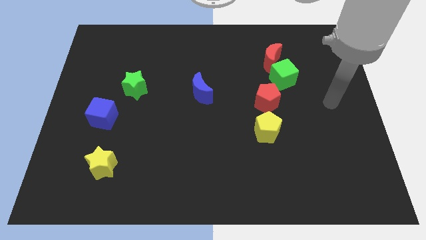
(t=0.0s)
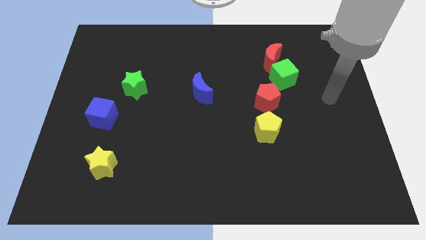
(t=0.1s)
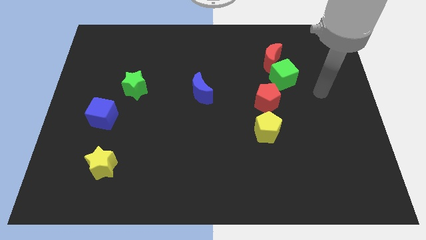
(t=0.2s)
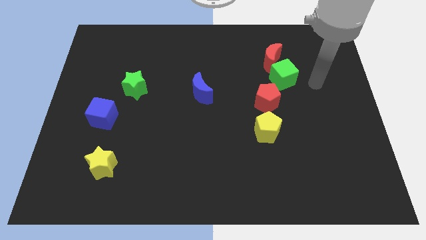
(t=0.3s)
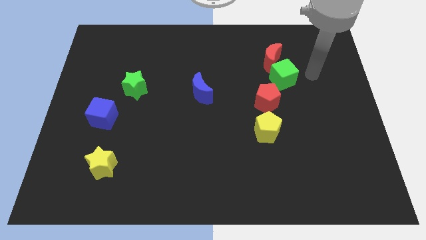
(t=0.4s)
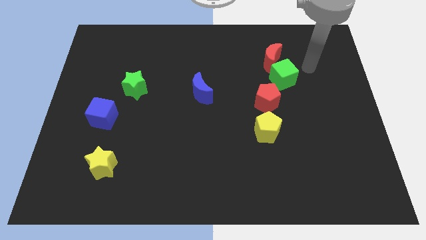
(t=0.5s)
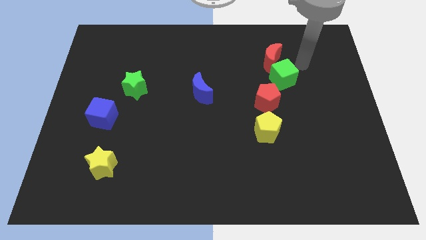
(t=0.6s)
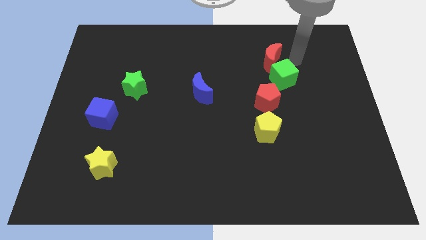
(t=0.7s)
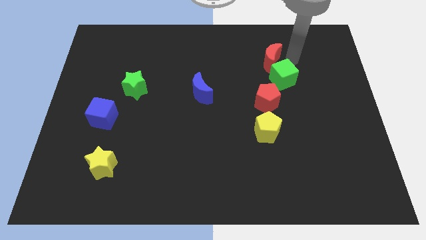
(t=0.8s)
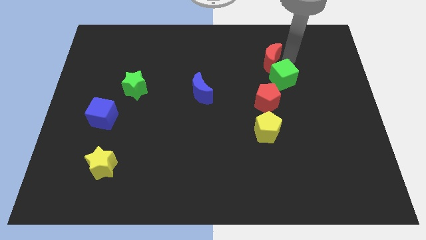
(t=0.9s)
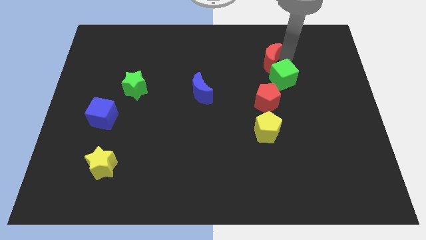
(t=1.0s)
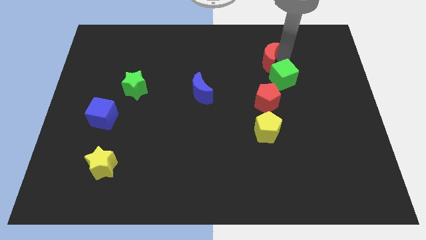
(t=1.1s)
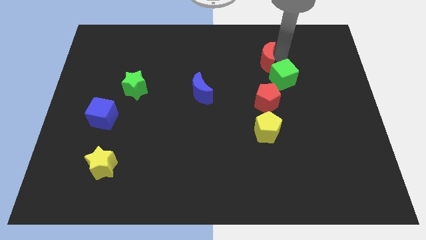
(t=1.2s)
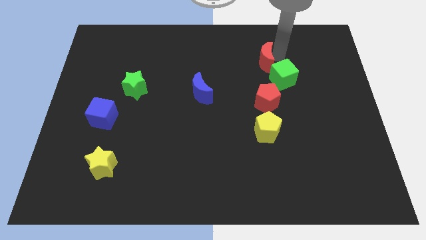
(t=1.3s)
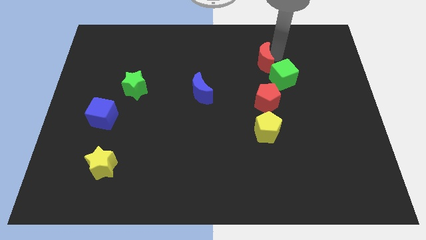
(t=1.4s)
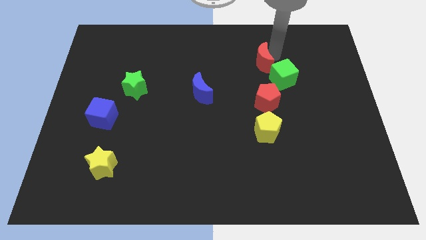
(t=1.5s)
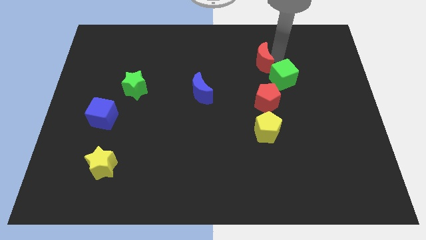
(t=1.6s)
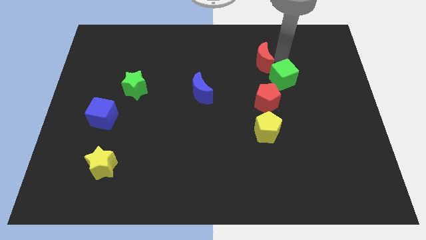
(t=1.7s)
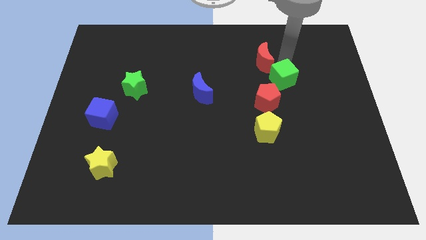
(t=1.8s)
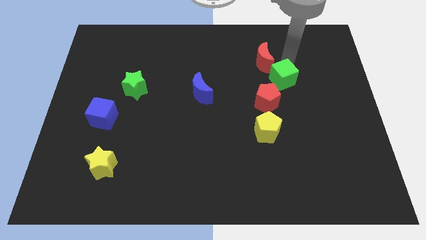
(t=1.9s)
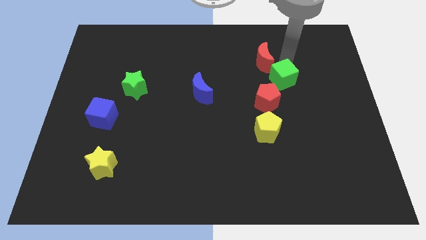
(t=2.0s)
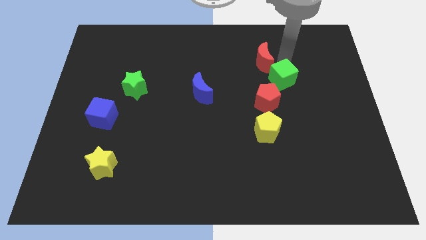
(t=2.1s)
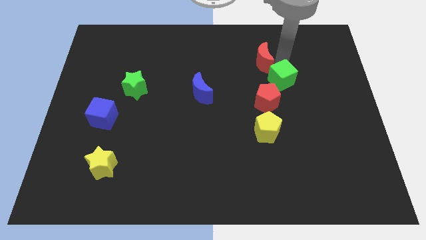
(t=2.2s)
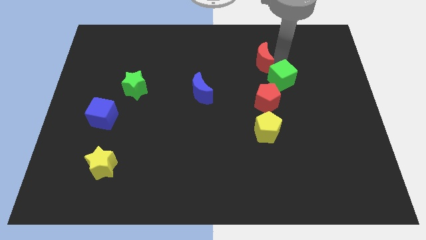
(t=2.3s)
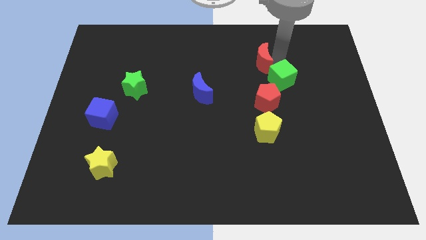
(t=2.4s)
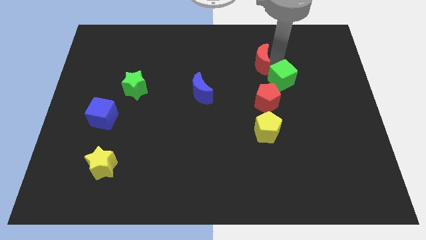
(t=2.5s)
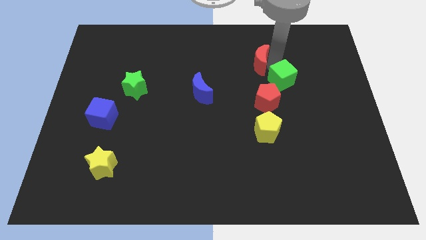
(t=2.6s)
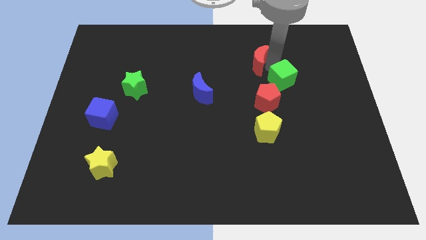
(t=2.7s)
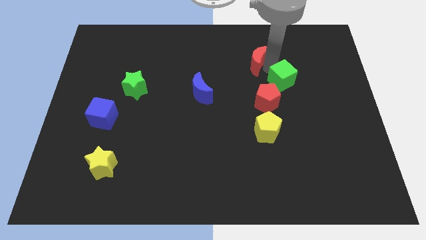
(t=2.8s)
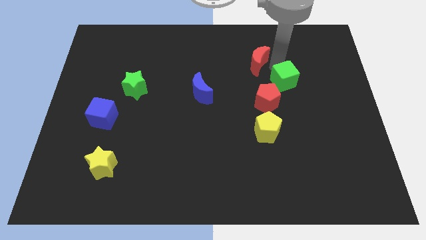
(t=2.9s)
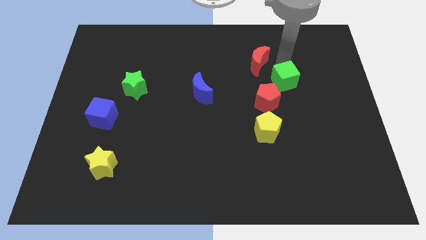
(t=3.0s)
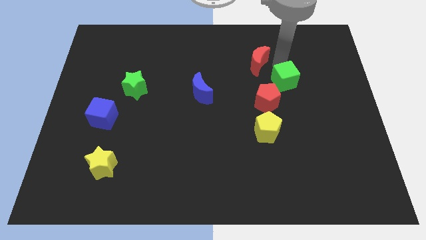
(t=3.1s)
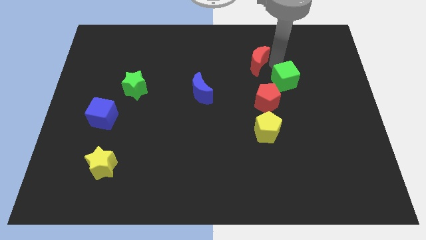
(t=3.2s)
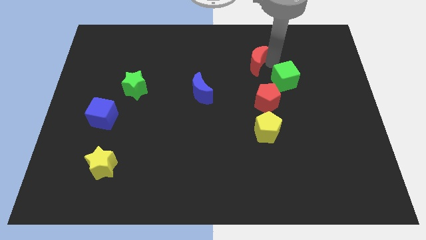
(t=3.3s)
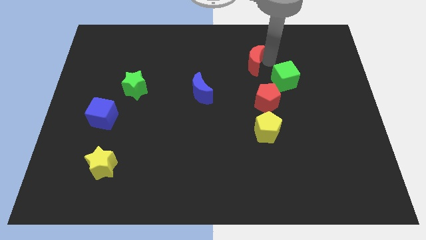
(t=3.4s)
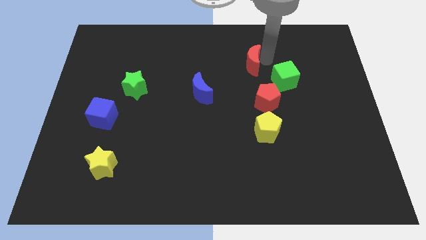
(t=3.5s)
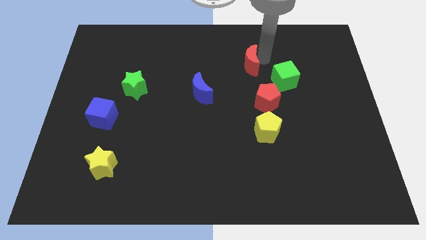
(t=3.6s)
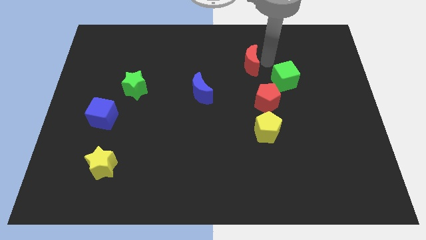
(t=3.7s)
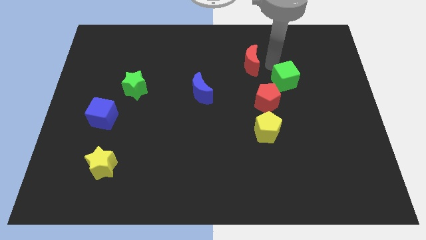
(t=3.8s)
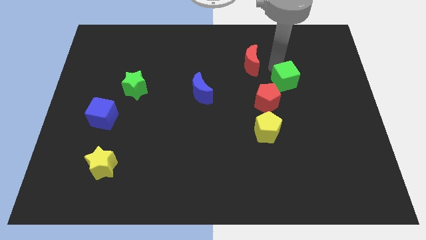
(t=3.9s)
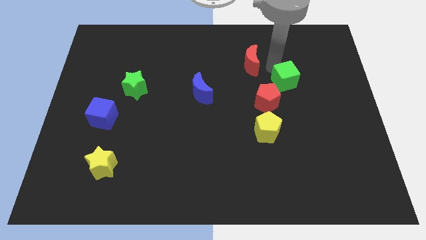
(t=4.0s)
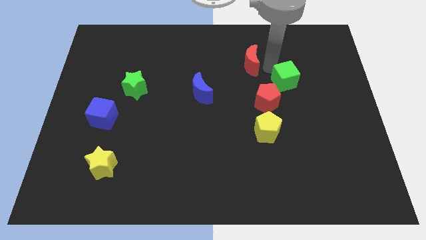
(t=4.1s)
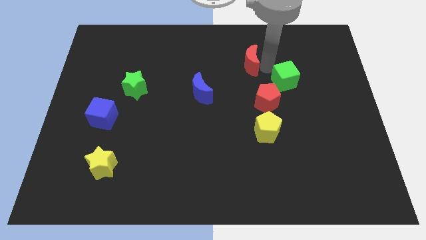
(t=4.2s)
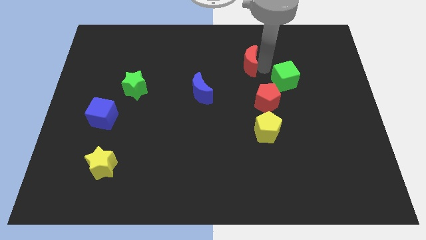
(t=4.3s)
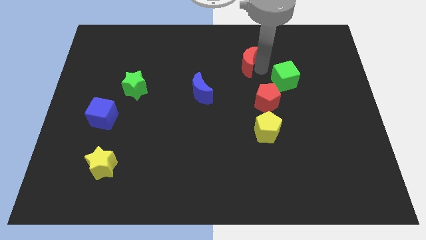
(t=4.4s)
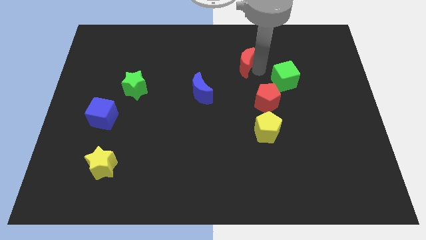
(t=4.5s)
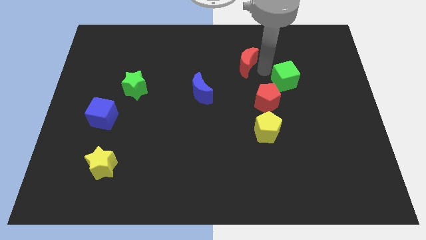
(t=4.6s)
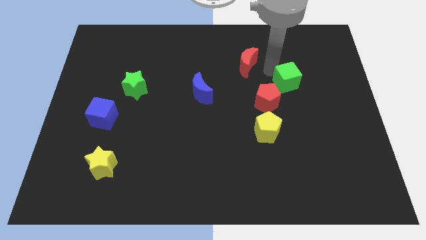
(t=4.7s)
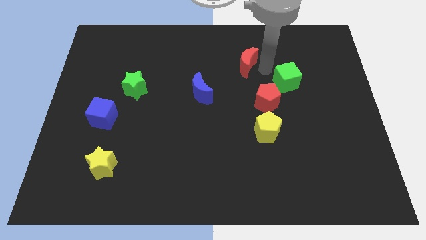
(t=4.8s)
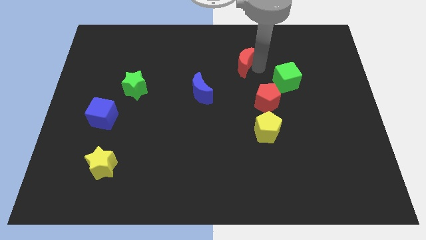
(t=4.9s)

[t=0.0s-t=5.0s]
move the red moon slightly left

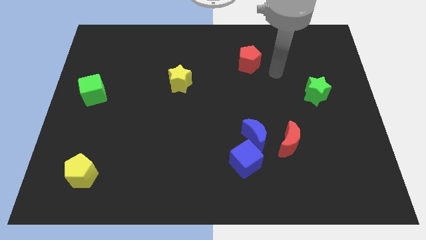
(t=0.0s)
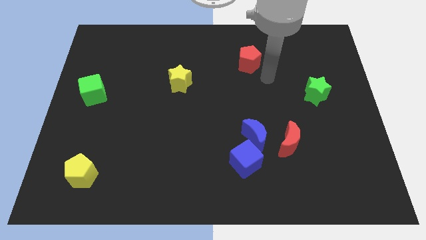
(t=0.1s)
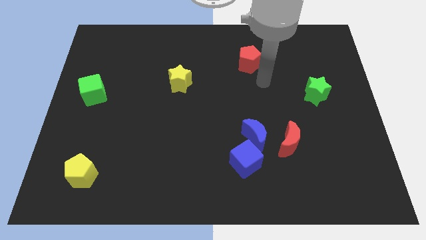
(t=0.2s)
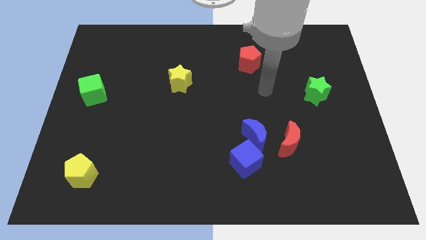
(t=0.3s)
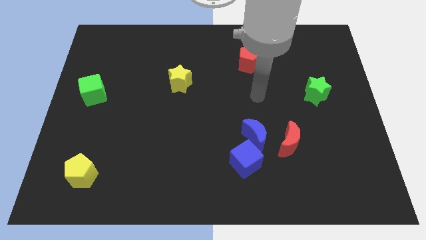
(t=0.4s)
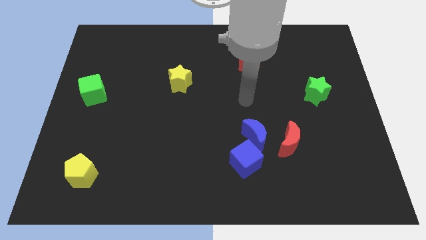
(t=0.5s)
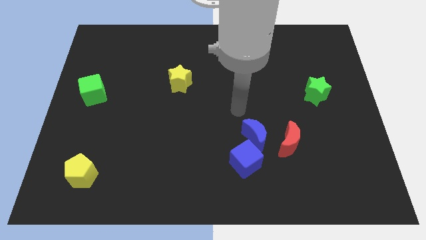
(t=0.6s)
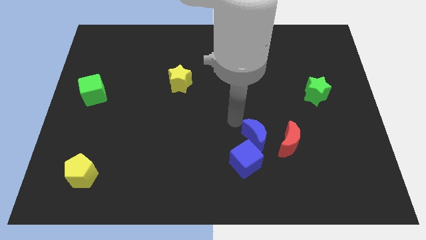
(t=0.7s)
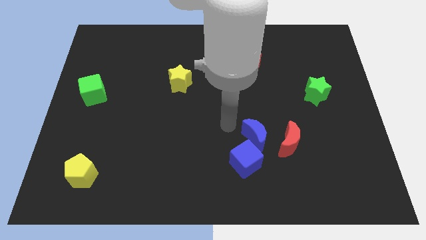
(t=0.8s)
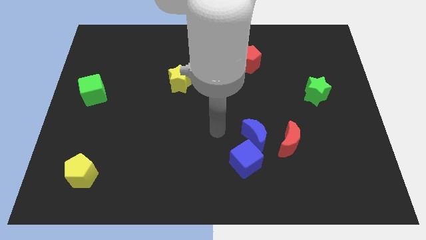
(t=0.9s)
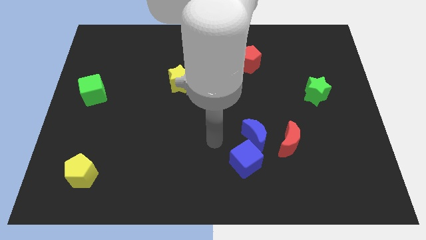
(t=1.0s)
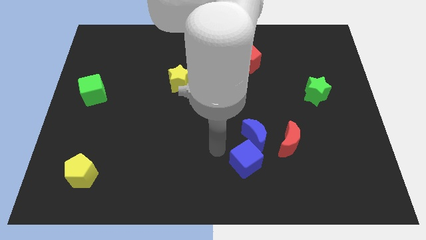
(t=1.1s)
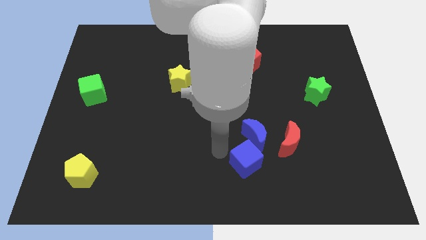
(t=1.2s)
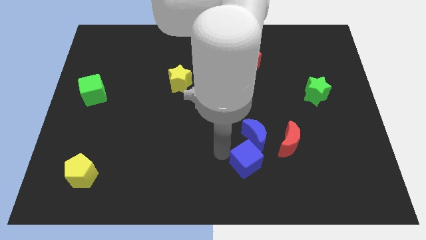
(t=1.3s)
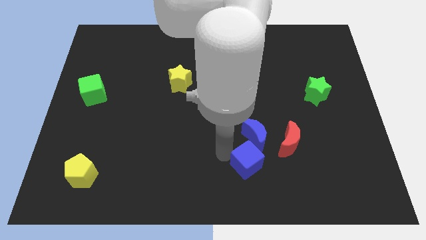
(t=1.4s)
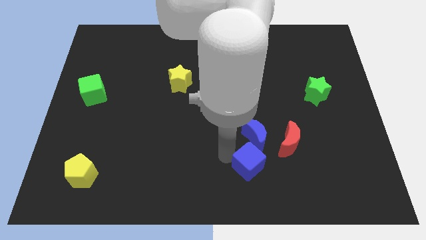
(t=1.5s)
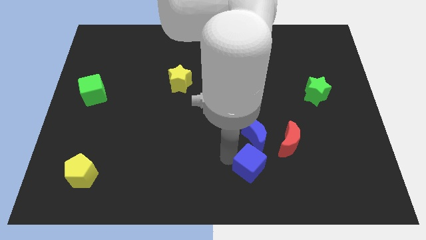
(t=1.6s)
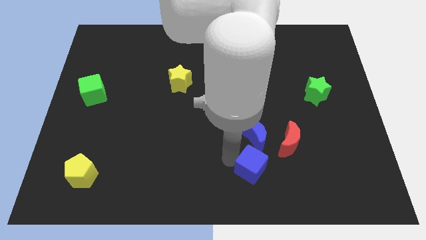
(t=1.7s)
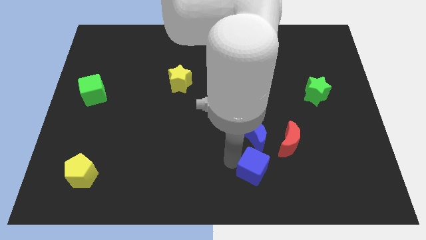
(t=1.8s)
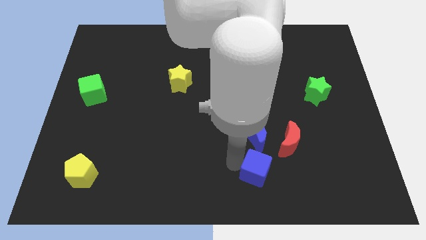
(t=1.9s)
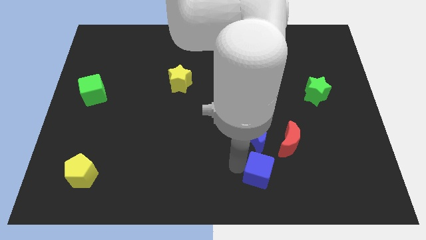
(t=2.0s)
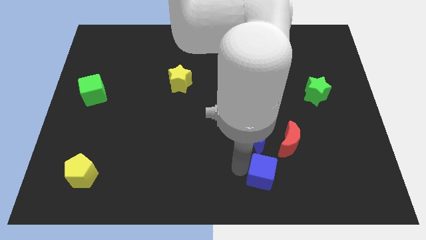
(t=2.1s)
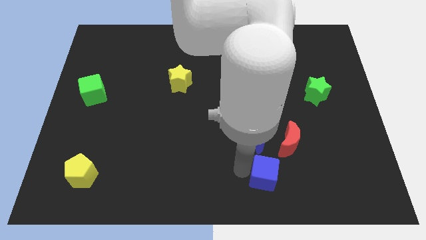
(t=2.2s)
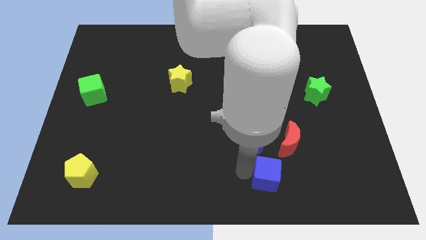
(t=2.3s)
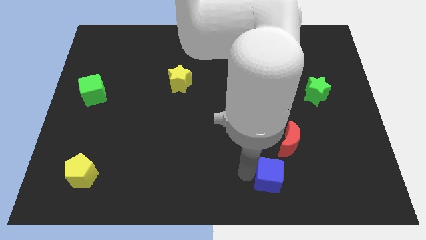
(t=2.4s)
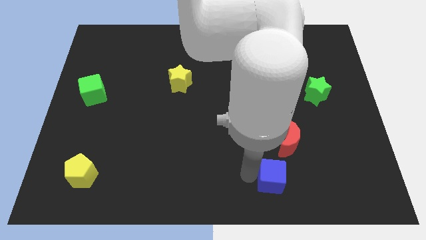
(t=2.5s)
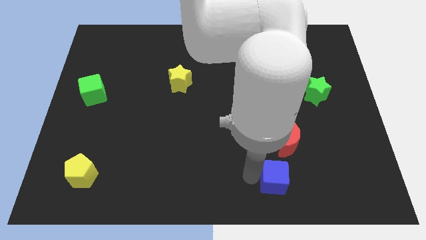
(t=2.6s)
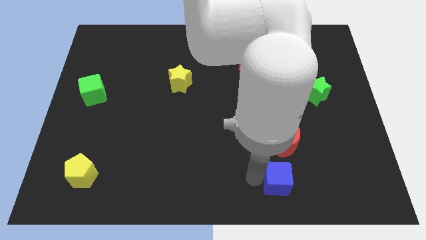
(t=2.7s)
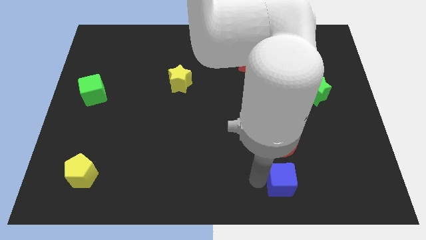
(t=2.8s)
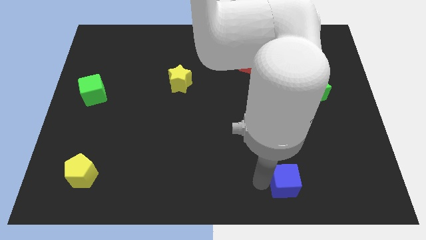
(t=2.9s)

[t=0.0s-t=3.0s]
move the blue cube to the right slightly

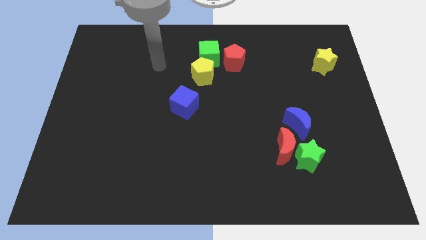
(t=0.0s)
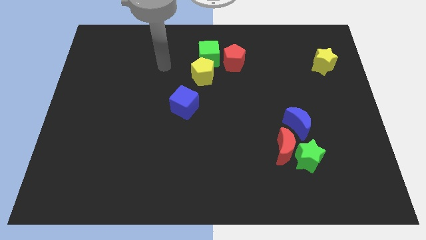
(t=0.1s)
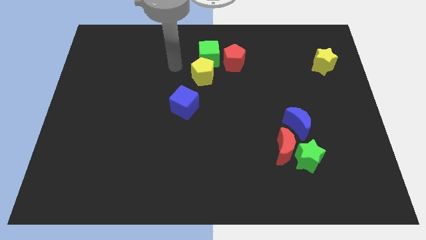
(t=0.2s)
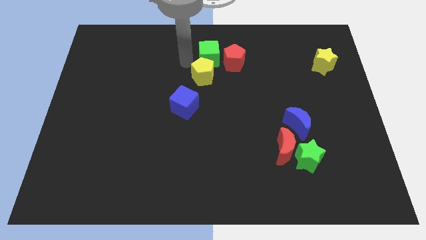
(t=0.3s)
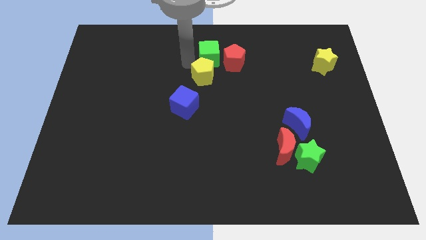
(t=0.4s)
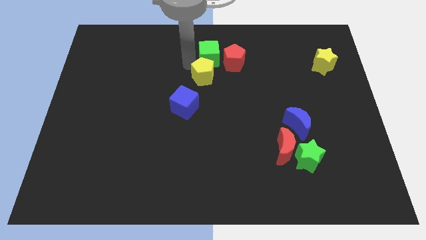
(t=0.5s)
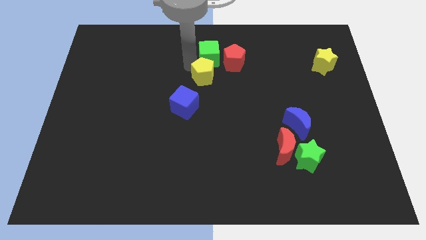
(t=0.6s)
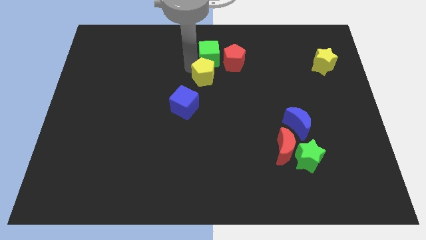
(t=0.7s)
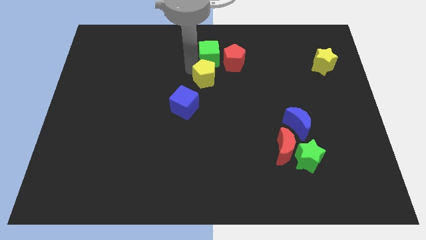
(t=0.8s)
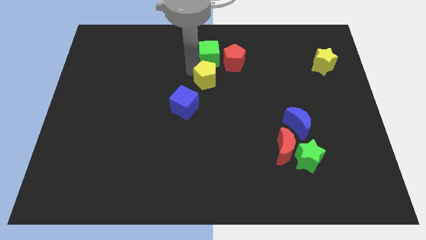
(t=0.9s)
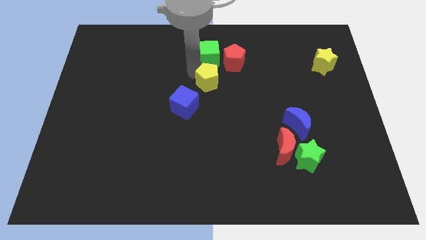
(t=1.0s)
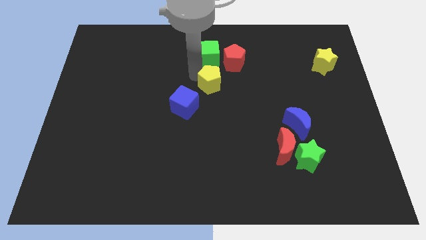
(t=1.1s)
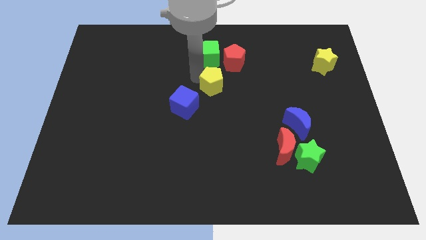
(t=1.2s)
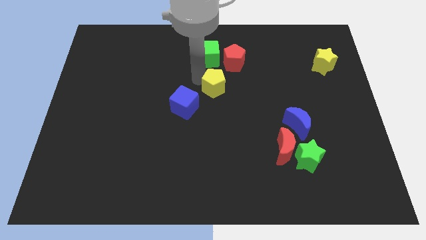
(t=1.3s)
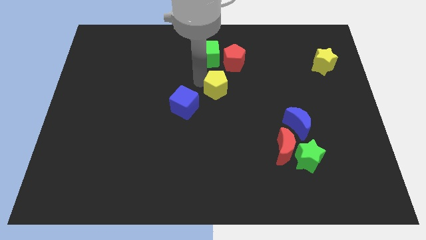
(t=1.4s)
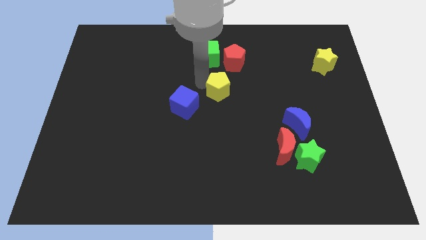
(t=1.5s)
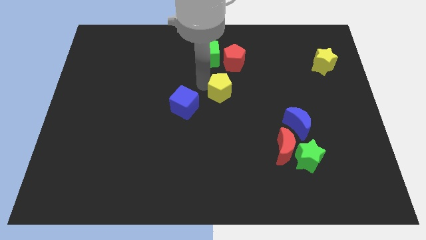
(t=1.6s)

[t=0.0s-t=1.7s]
slightly move the yellow pentagon downwards and right
